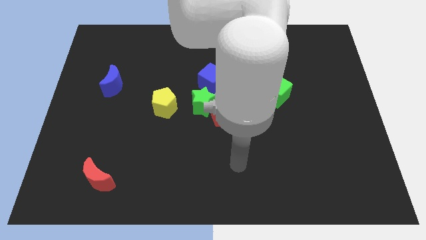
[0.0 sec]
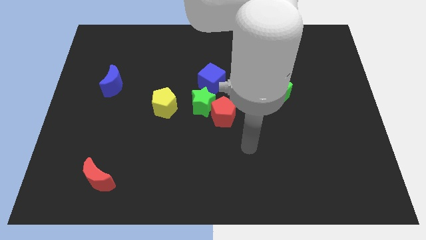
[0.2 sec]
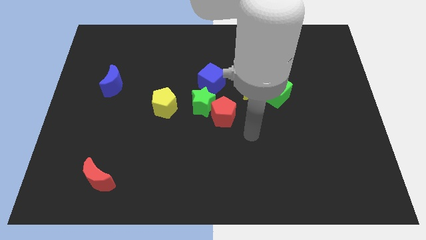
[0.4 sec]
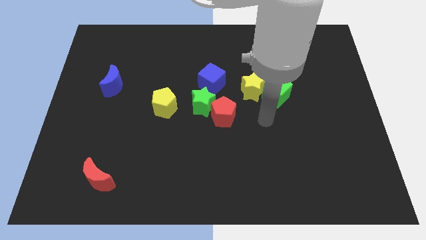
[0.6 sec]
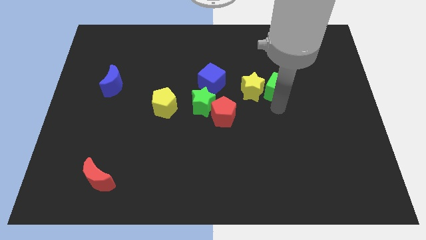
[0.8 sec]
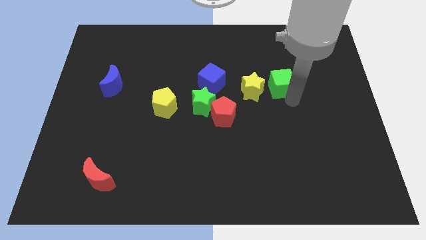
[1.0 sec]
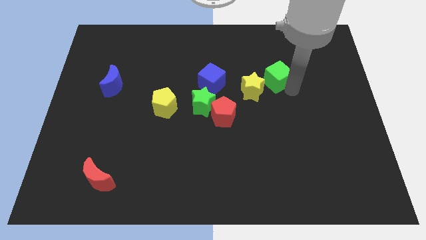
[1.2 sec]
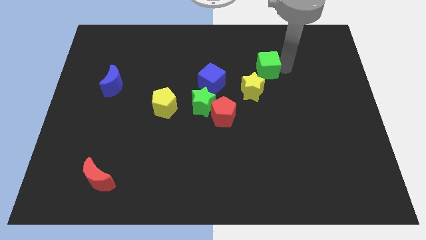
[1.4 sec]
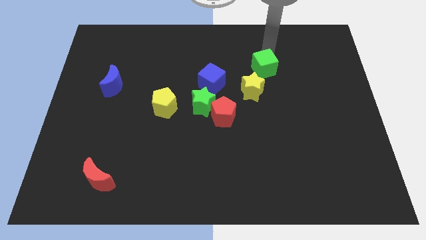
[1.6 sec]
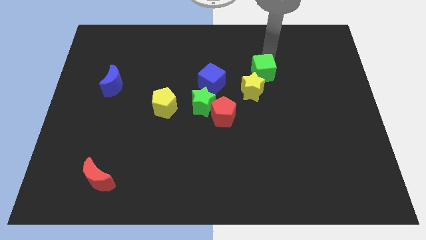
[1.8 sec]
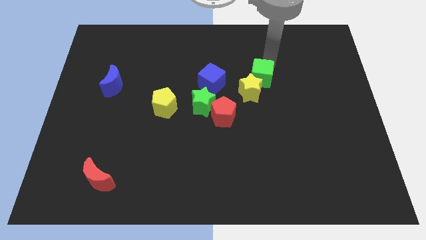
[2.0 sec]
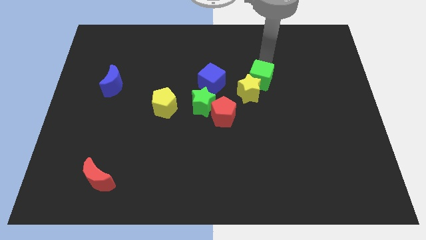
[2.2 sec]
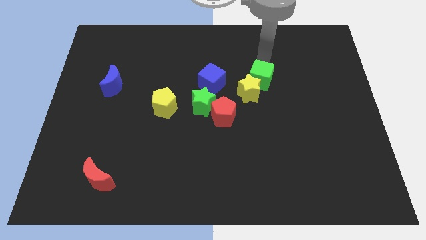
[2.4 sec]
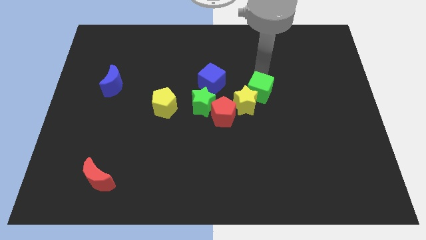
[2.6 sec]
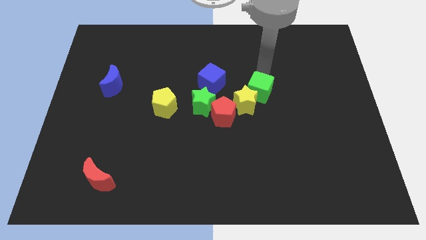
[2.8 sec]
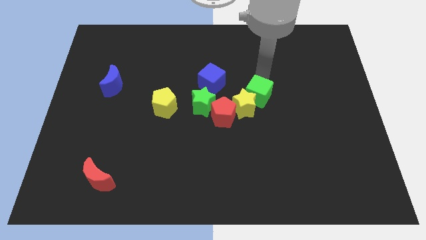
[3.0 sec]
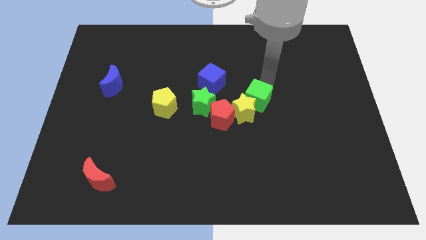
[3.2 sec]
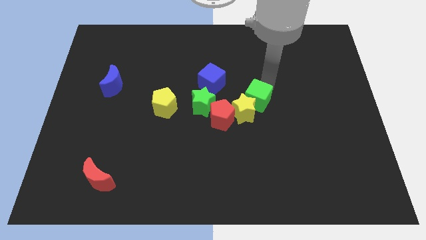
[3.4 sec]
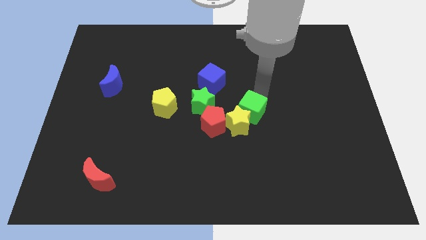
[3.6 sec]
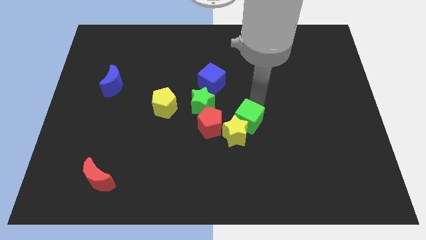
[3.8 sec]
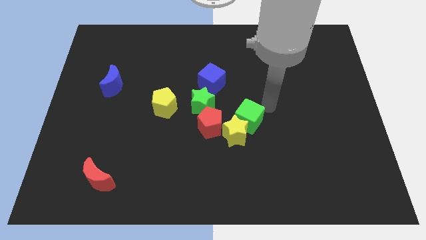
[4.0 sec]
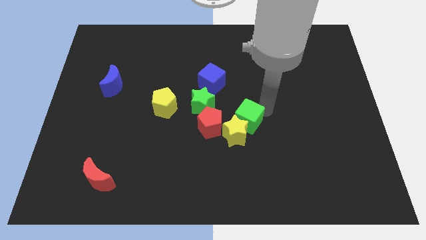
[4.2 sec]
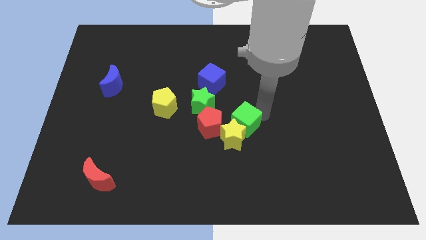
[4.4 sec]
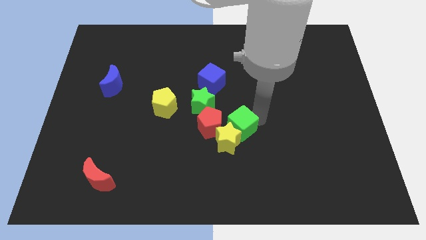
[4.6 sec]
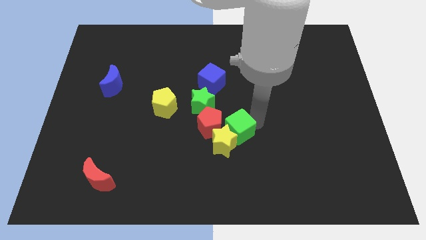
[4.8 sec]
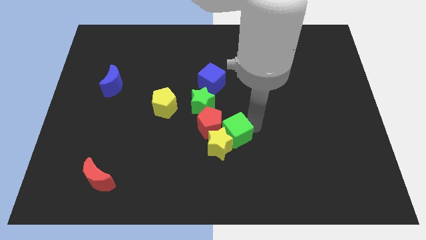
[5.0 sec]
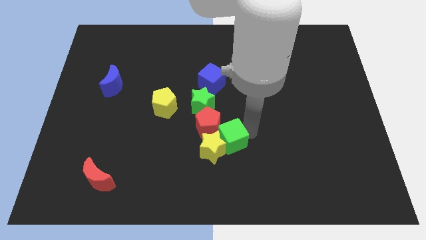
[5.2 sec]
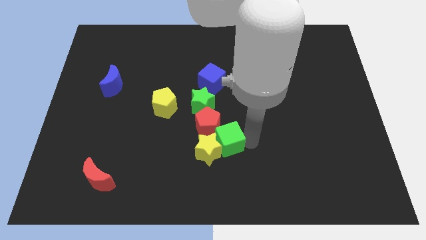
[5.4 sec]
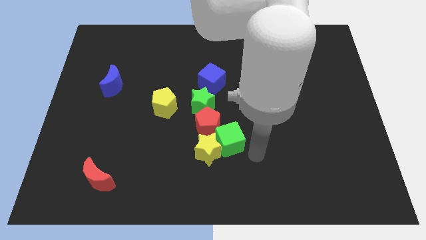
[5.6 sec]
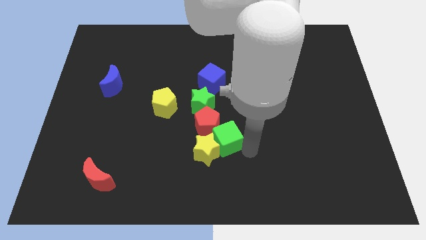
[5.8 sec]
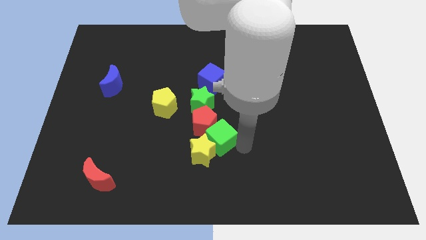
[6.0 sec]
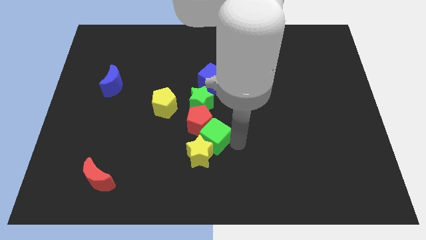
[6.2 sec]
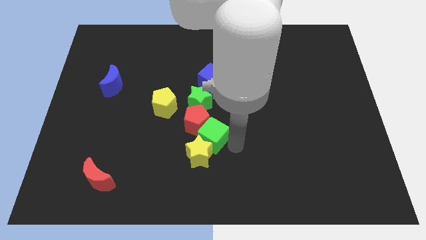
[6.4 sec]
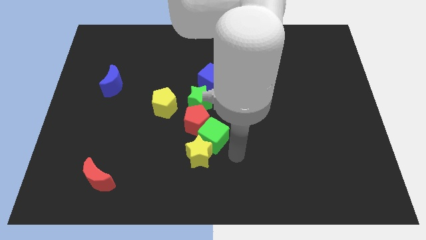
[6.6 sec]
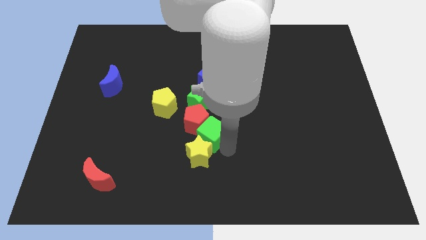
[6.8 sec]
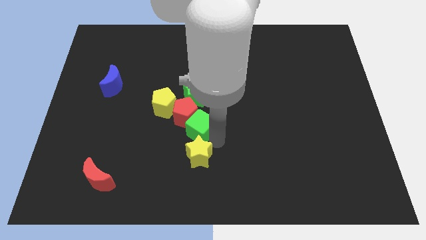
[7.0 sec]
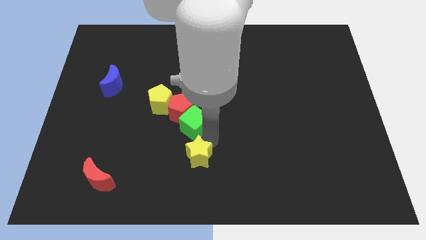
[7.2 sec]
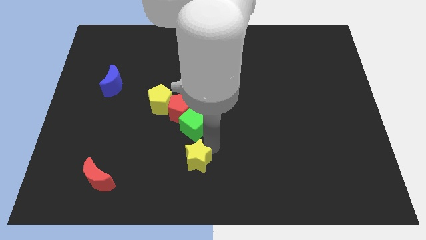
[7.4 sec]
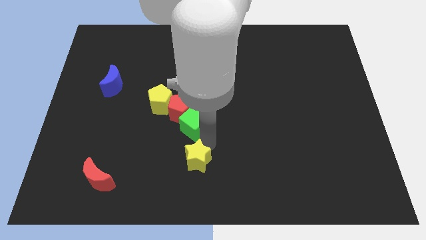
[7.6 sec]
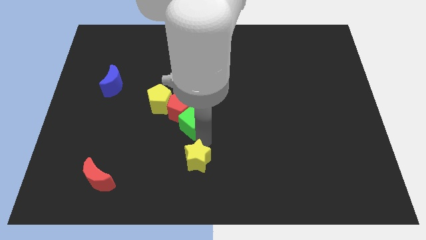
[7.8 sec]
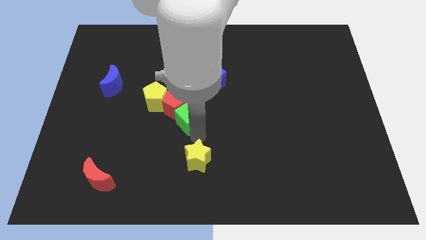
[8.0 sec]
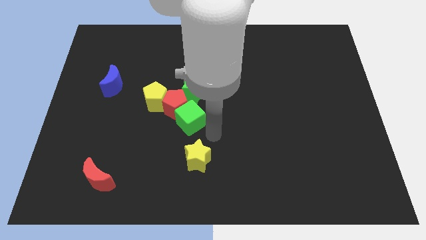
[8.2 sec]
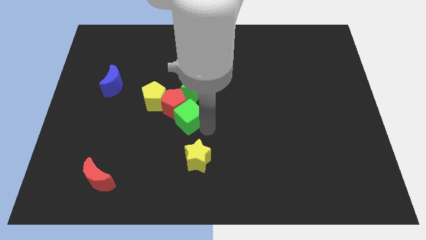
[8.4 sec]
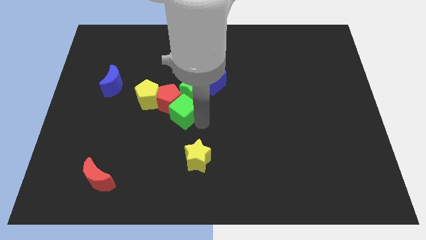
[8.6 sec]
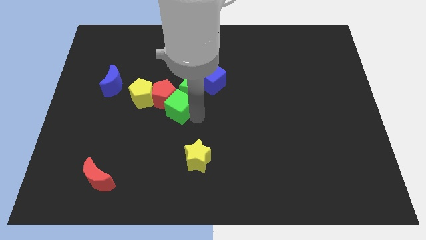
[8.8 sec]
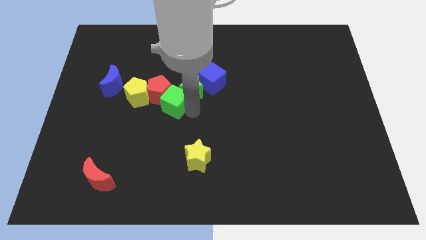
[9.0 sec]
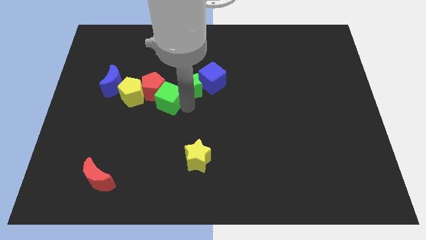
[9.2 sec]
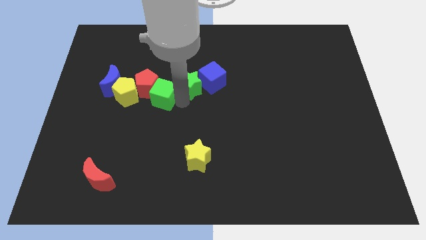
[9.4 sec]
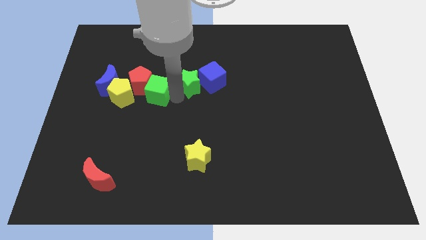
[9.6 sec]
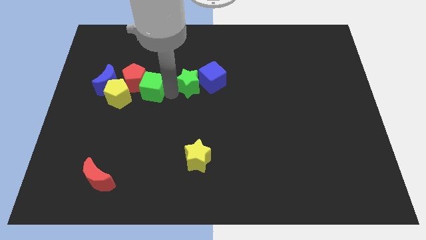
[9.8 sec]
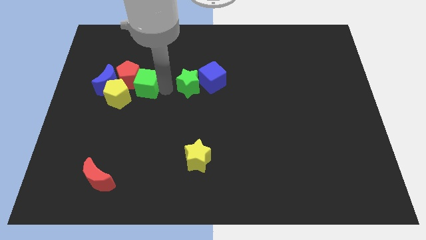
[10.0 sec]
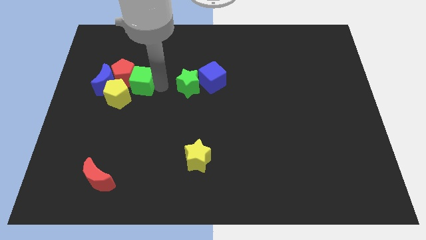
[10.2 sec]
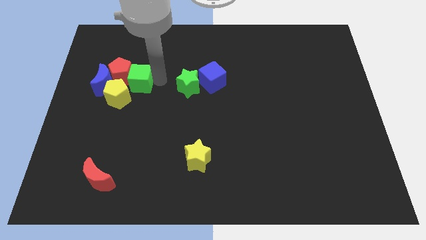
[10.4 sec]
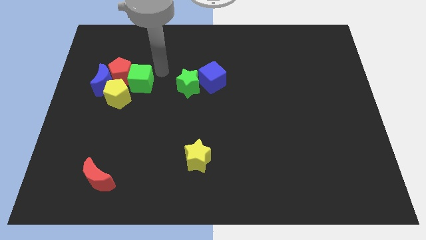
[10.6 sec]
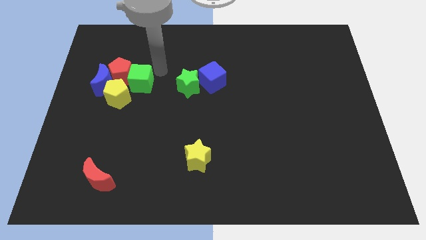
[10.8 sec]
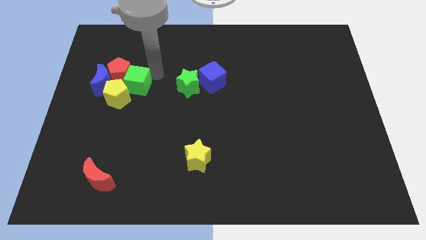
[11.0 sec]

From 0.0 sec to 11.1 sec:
slide the green cube towards the yellow pentagon

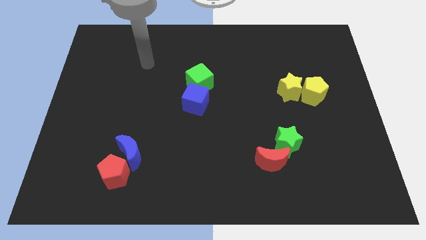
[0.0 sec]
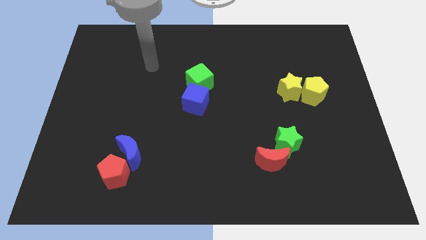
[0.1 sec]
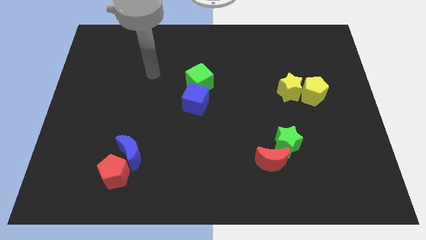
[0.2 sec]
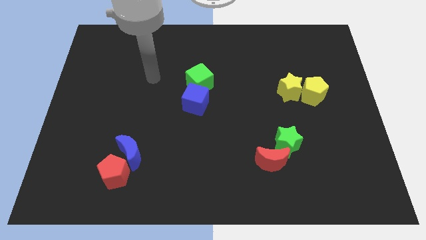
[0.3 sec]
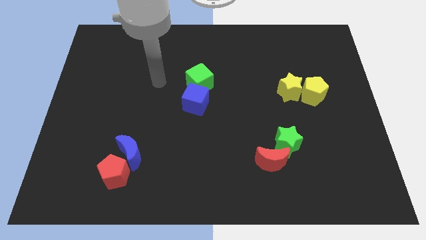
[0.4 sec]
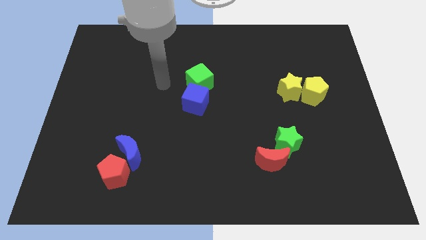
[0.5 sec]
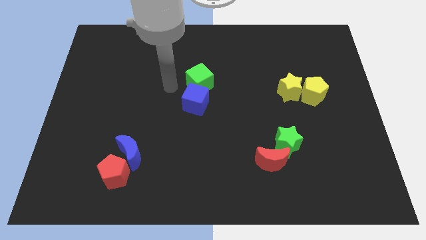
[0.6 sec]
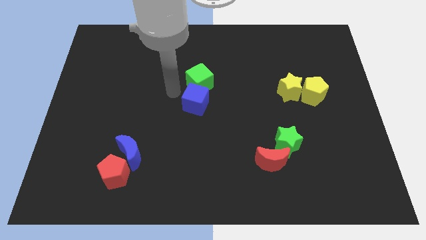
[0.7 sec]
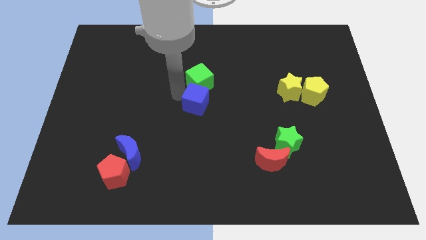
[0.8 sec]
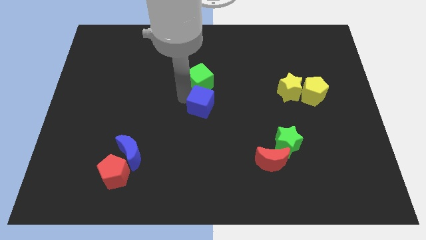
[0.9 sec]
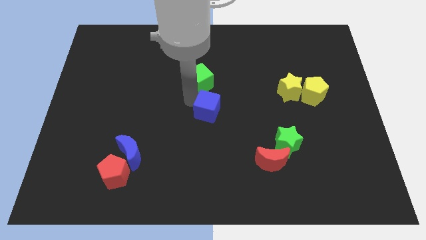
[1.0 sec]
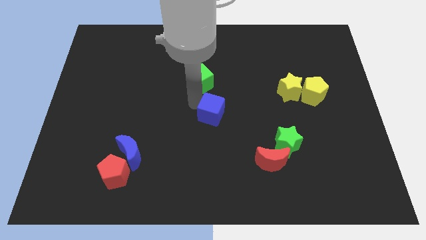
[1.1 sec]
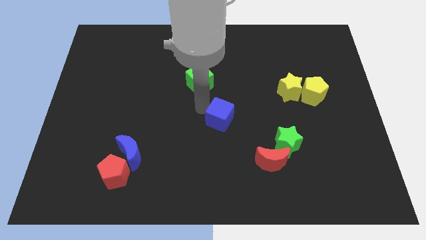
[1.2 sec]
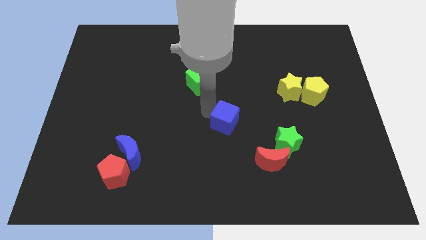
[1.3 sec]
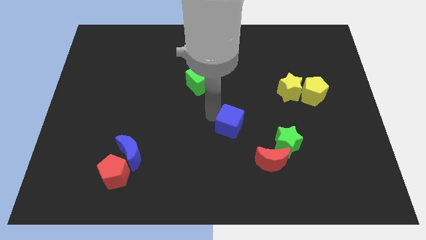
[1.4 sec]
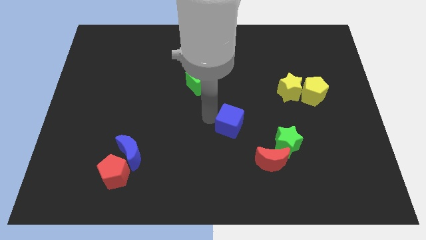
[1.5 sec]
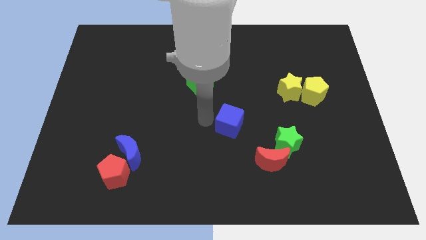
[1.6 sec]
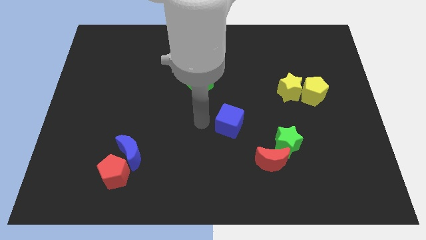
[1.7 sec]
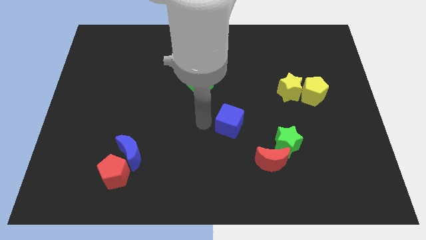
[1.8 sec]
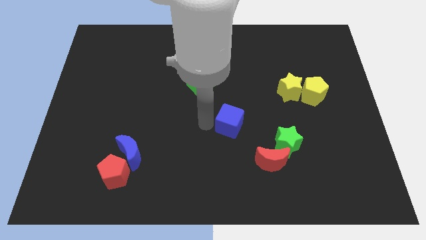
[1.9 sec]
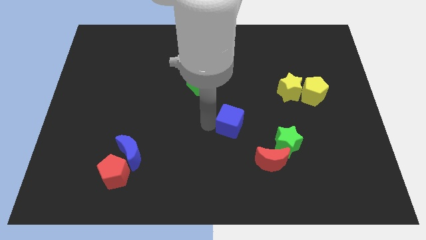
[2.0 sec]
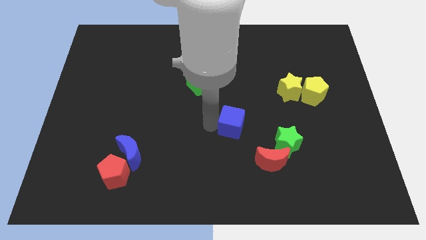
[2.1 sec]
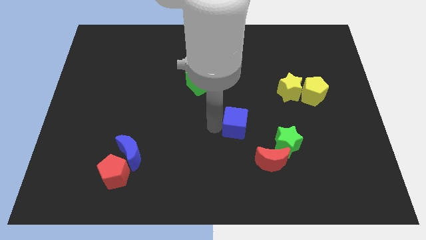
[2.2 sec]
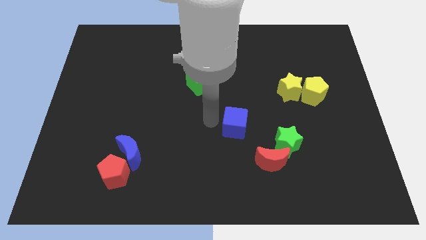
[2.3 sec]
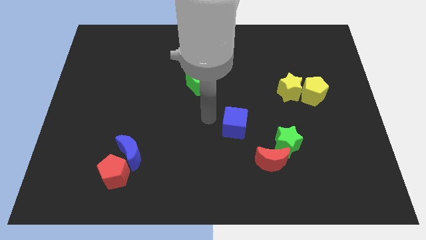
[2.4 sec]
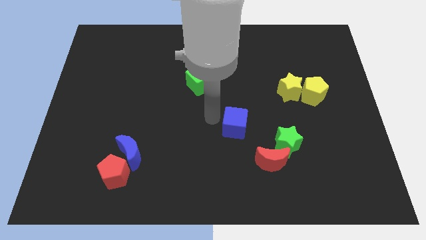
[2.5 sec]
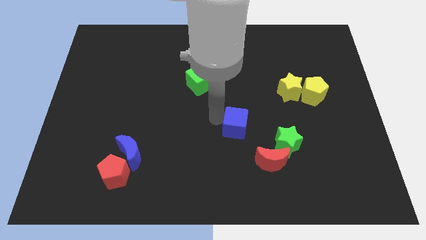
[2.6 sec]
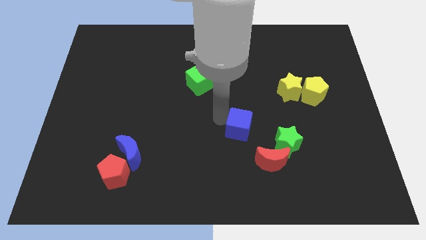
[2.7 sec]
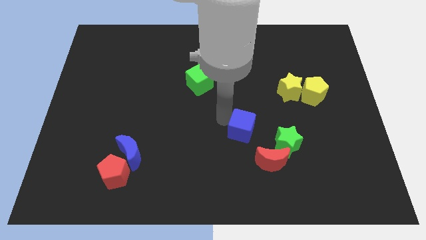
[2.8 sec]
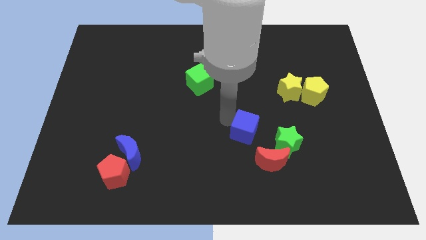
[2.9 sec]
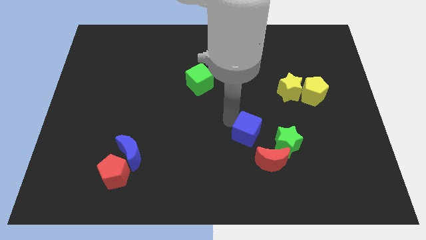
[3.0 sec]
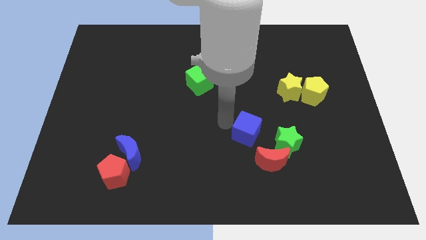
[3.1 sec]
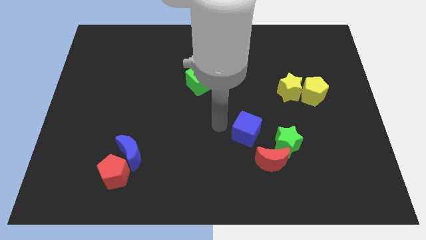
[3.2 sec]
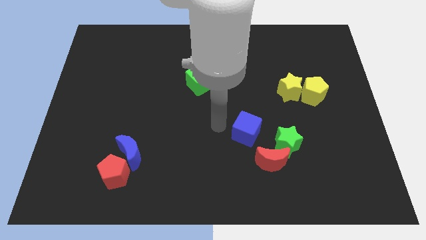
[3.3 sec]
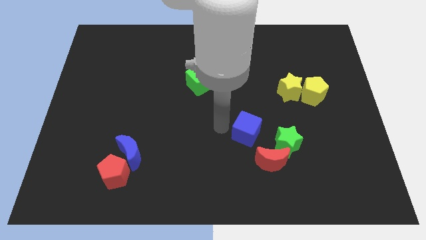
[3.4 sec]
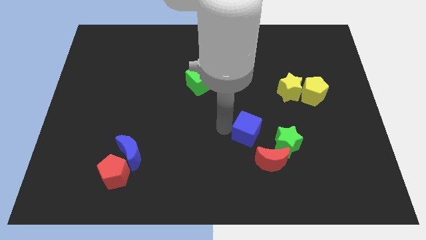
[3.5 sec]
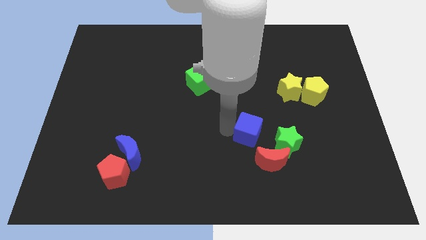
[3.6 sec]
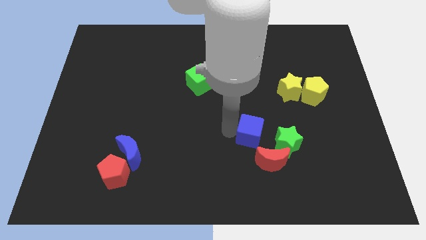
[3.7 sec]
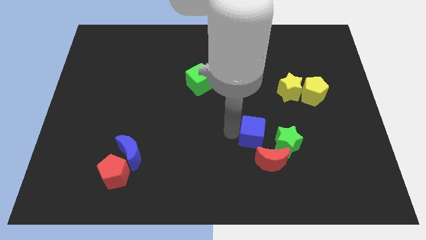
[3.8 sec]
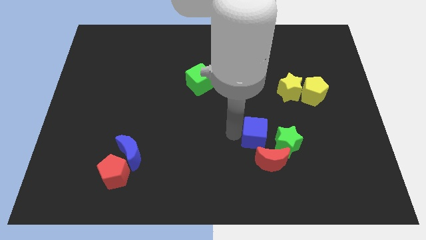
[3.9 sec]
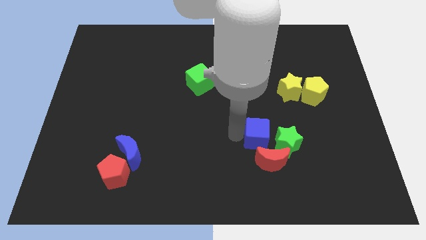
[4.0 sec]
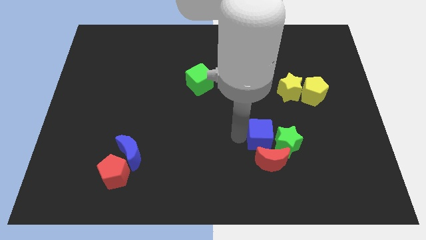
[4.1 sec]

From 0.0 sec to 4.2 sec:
move the blue cube to the green star
